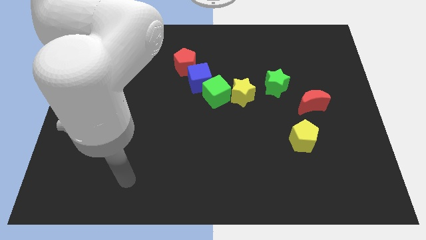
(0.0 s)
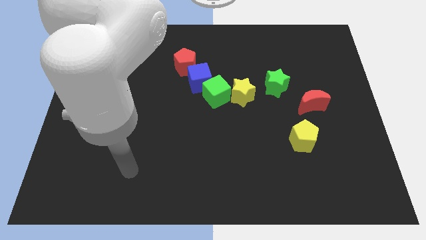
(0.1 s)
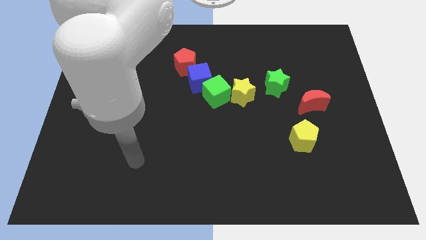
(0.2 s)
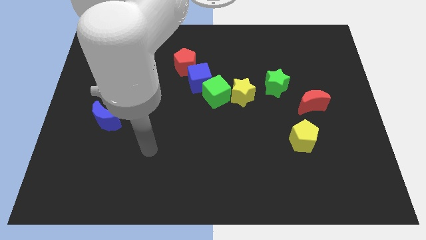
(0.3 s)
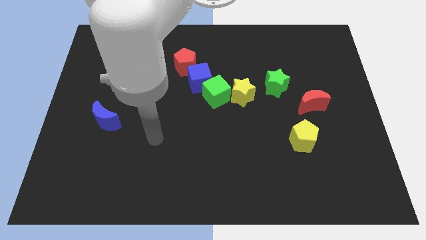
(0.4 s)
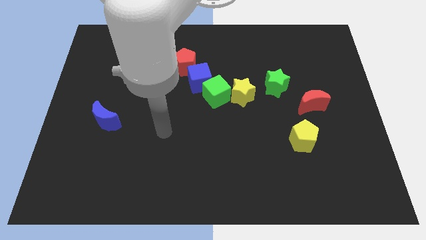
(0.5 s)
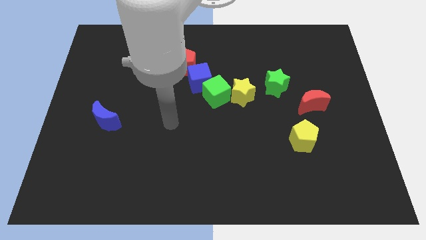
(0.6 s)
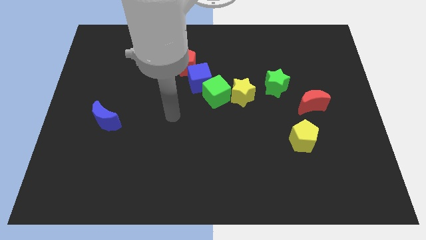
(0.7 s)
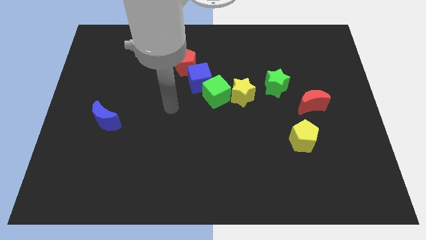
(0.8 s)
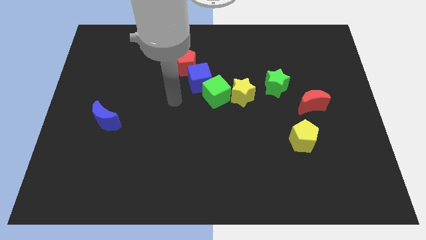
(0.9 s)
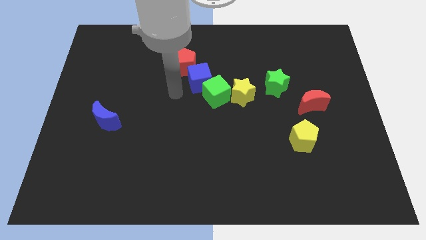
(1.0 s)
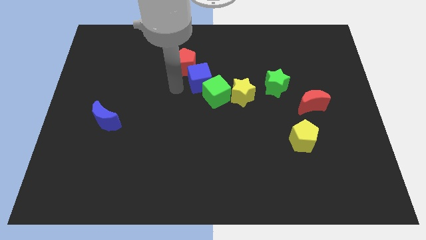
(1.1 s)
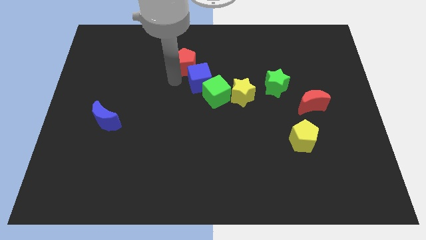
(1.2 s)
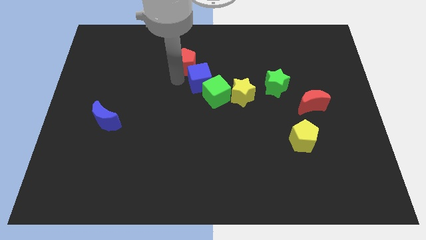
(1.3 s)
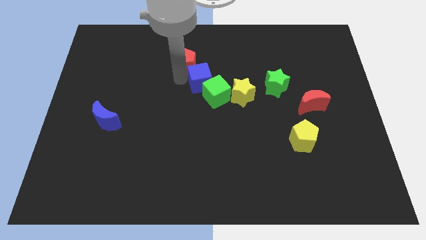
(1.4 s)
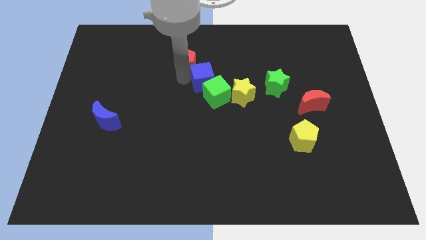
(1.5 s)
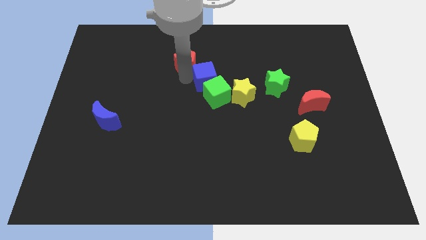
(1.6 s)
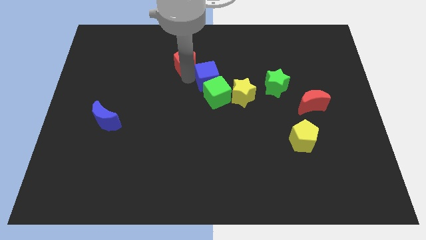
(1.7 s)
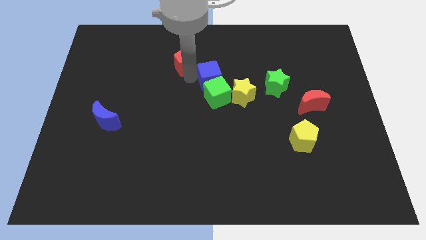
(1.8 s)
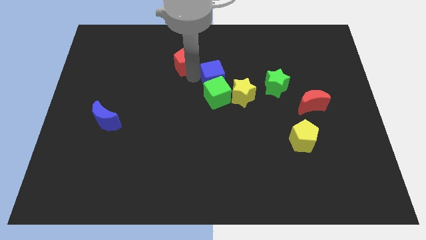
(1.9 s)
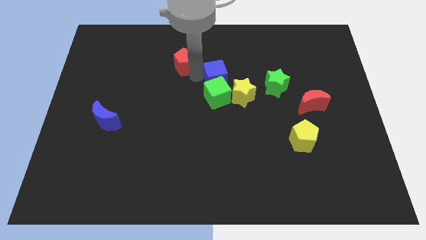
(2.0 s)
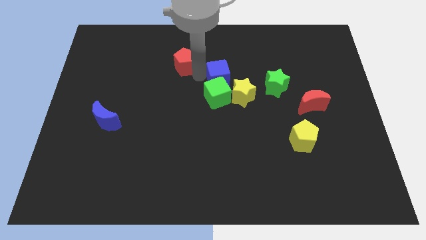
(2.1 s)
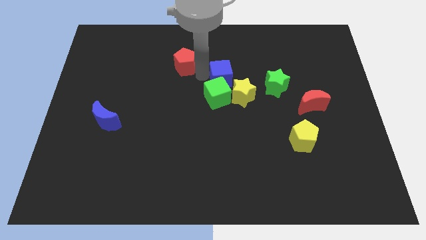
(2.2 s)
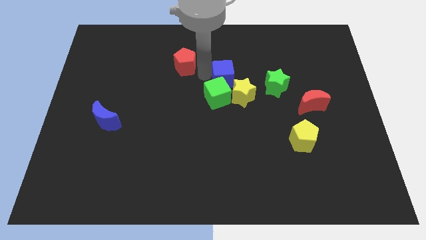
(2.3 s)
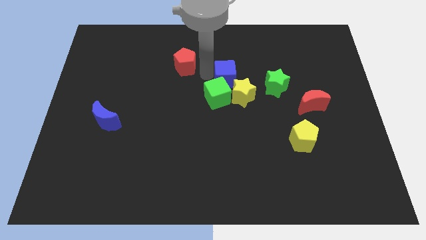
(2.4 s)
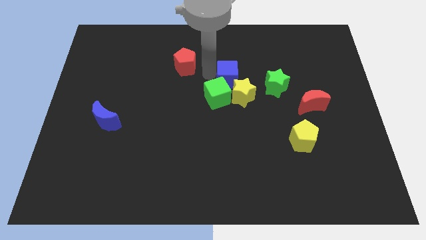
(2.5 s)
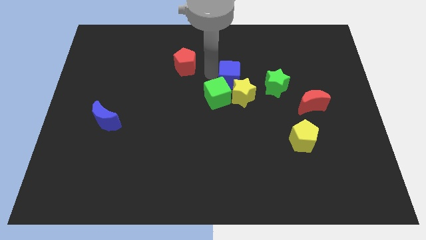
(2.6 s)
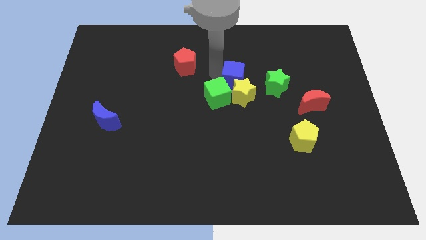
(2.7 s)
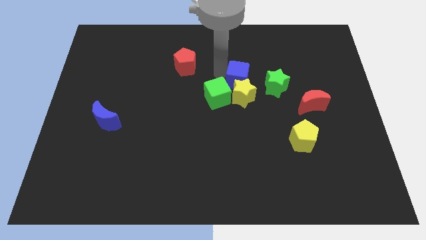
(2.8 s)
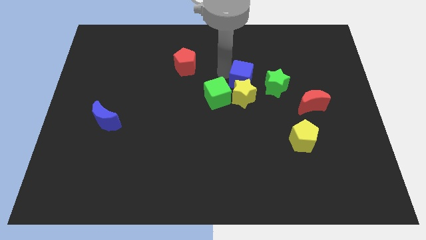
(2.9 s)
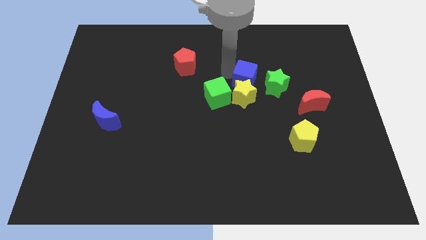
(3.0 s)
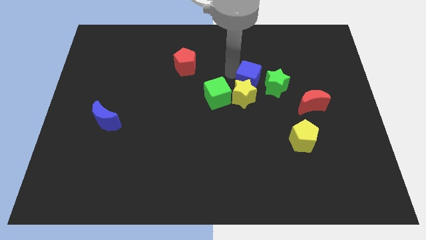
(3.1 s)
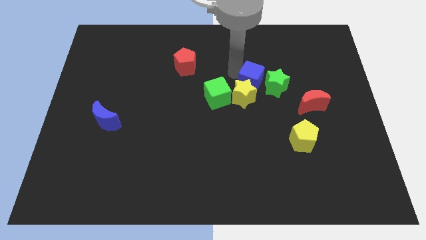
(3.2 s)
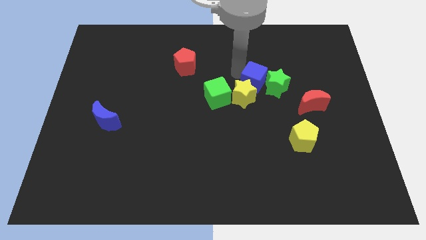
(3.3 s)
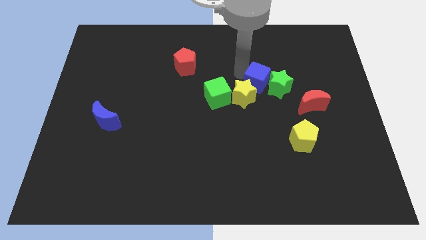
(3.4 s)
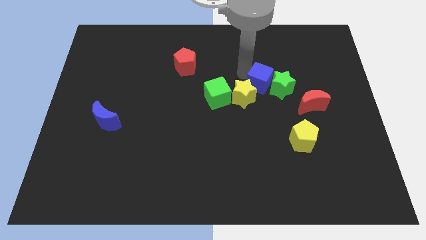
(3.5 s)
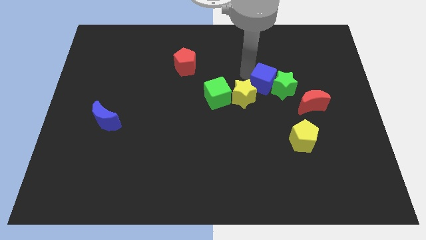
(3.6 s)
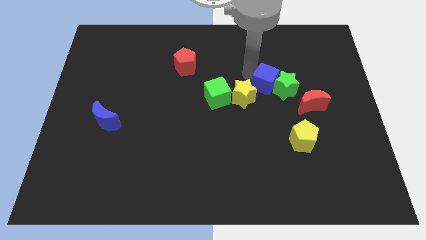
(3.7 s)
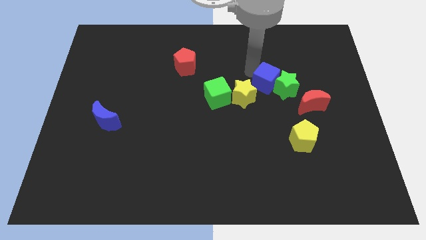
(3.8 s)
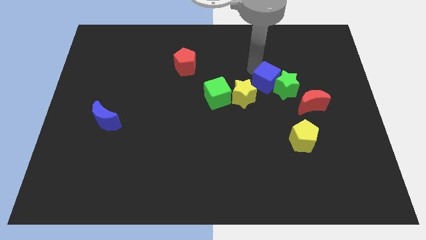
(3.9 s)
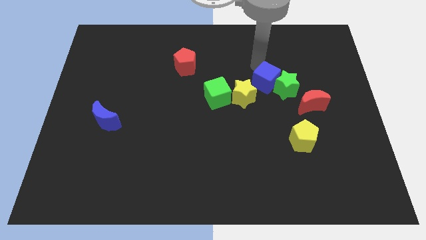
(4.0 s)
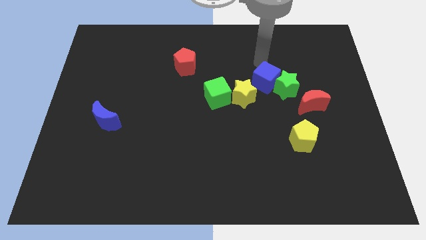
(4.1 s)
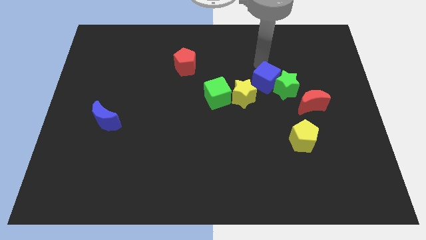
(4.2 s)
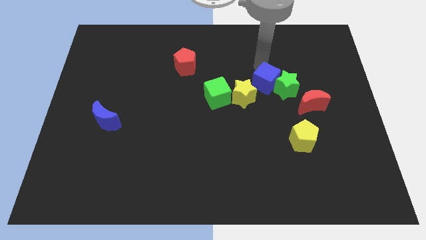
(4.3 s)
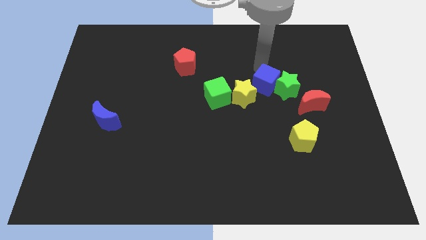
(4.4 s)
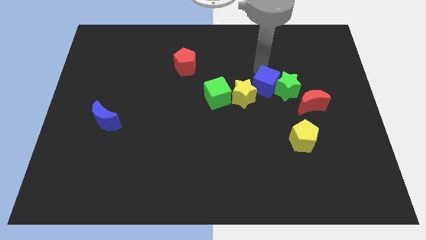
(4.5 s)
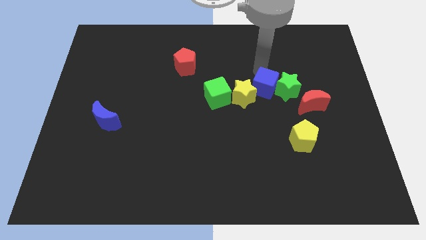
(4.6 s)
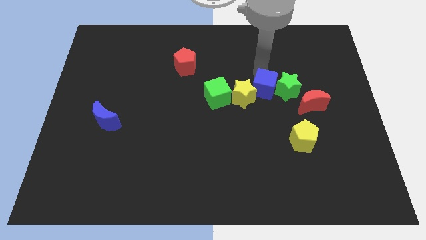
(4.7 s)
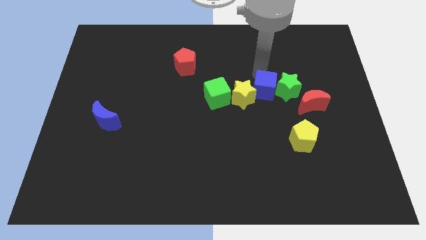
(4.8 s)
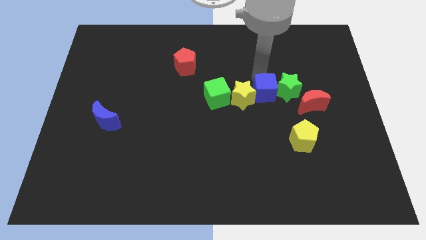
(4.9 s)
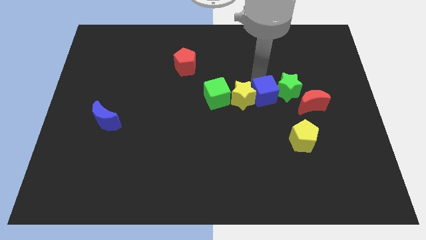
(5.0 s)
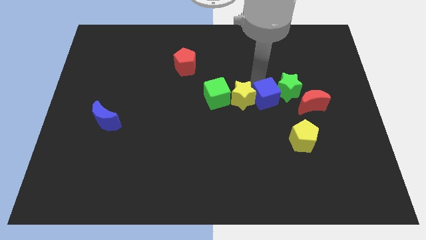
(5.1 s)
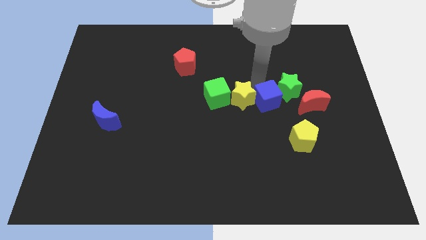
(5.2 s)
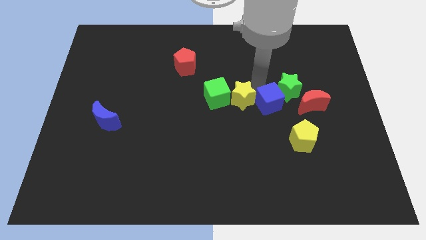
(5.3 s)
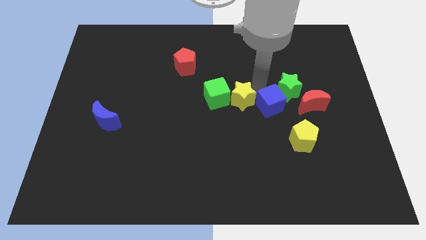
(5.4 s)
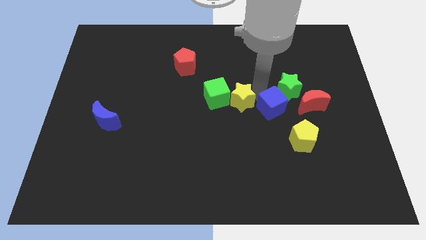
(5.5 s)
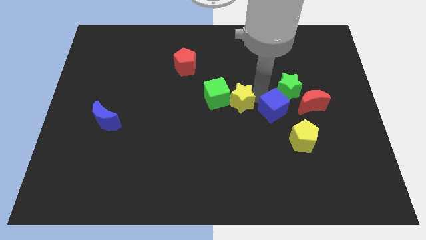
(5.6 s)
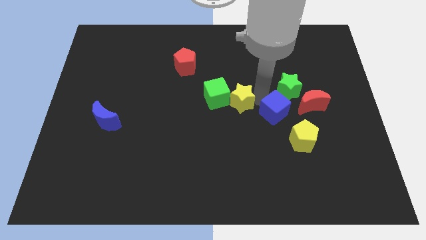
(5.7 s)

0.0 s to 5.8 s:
push the blue cube diagonally down and to the left of the red moon
